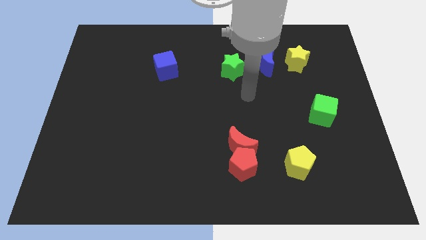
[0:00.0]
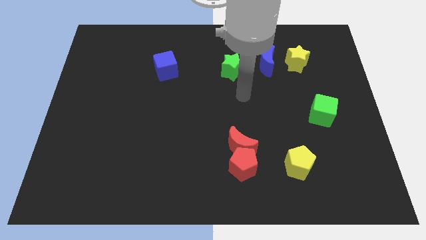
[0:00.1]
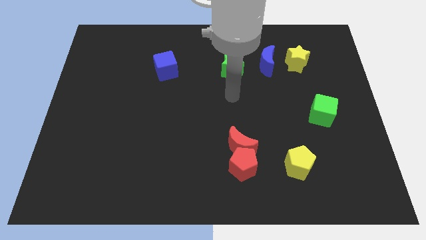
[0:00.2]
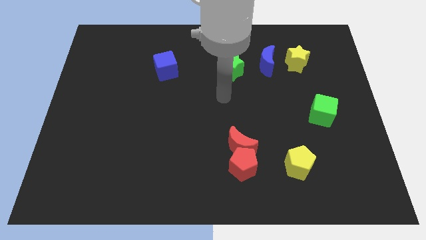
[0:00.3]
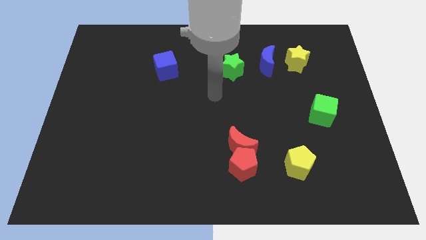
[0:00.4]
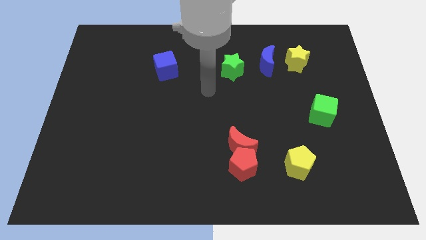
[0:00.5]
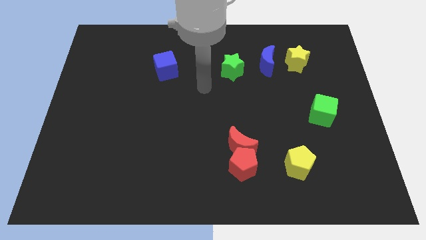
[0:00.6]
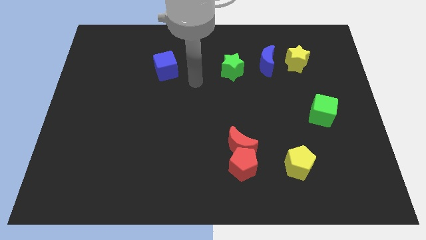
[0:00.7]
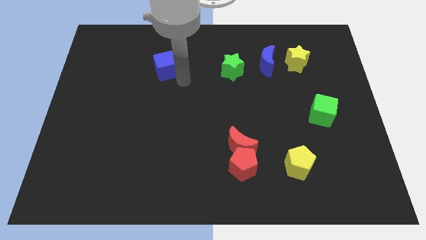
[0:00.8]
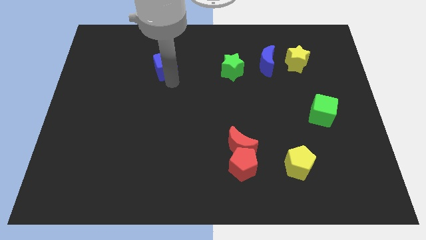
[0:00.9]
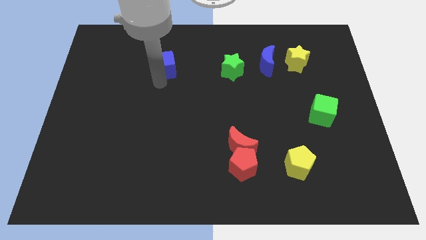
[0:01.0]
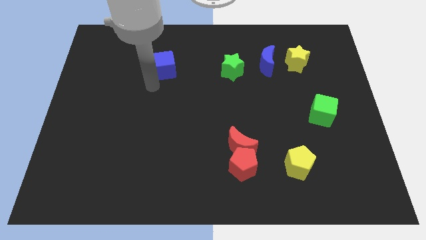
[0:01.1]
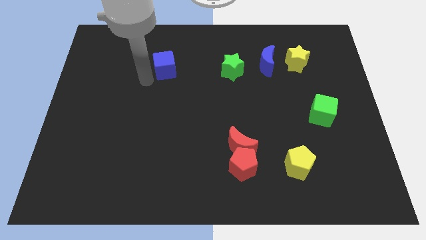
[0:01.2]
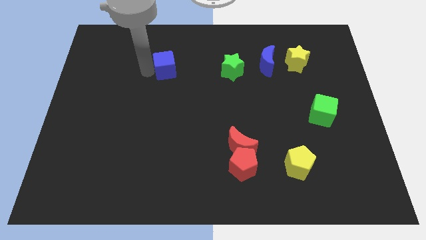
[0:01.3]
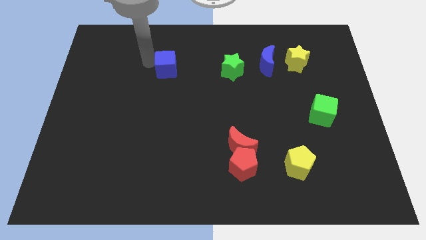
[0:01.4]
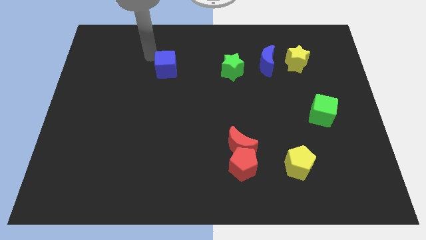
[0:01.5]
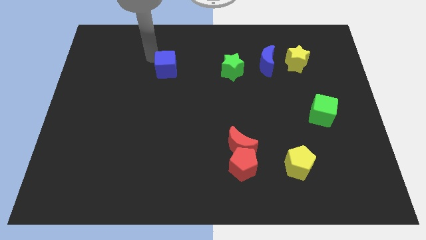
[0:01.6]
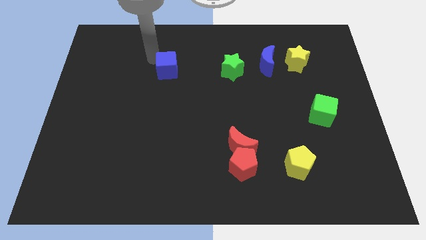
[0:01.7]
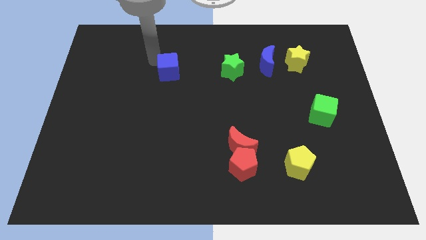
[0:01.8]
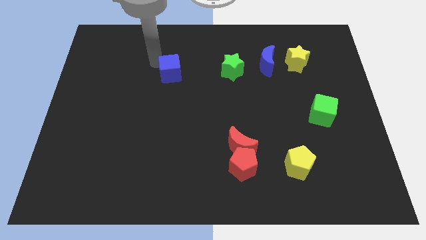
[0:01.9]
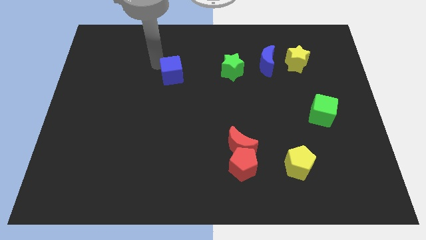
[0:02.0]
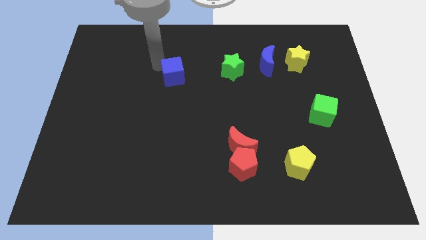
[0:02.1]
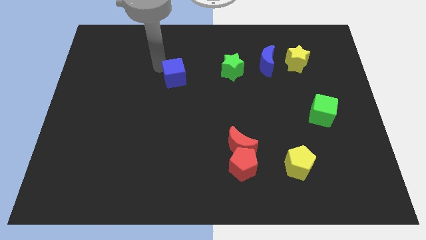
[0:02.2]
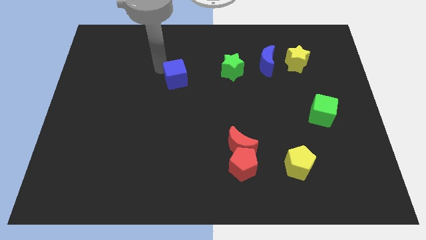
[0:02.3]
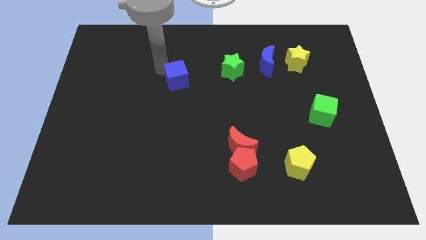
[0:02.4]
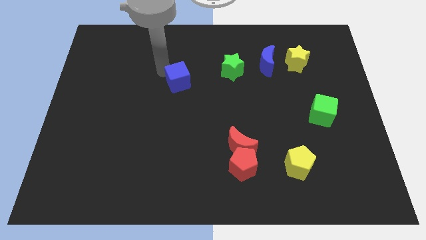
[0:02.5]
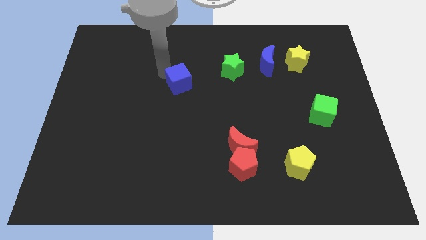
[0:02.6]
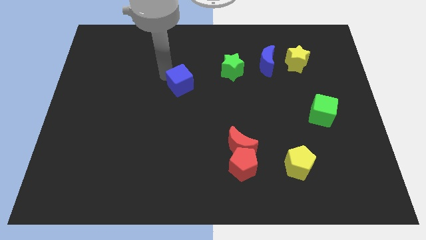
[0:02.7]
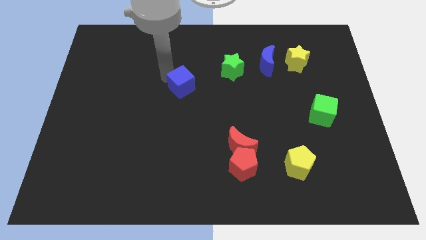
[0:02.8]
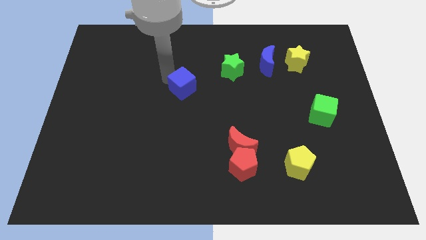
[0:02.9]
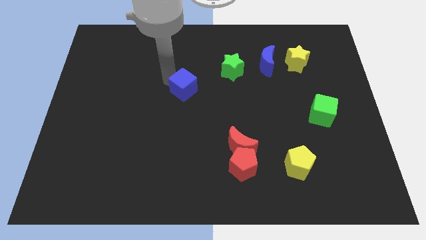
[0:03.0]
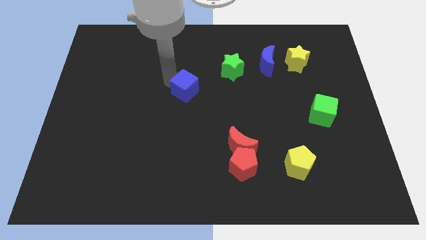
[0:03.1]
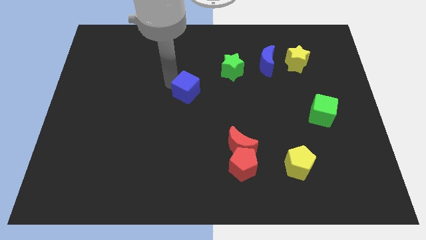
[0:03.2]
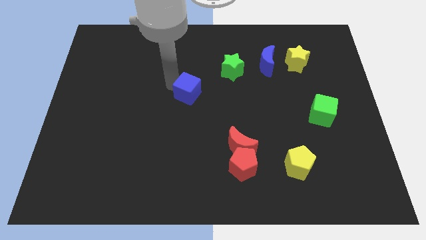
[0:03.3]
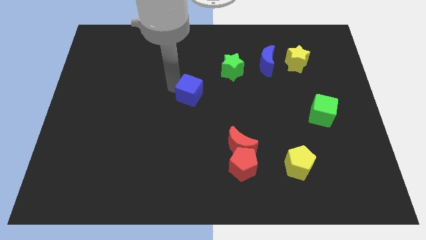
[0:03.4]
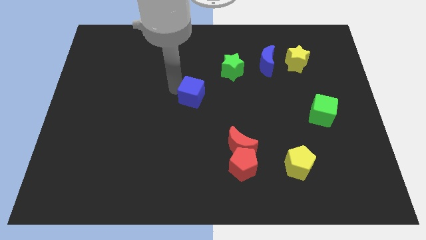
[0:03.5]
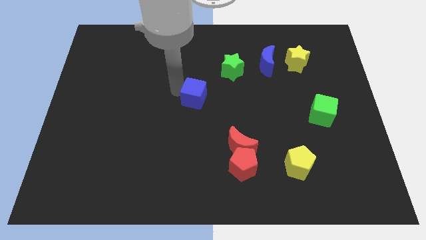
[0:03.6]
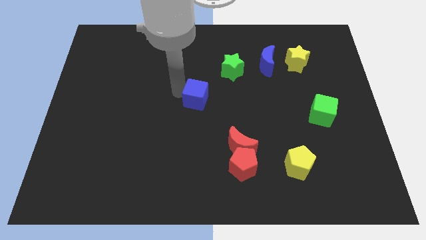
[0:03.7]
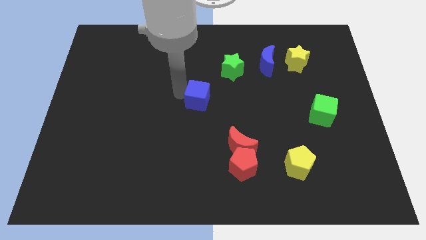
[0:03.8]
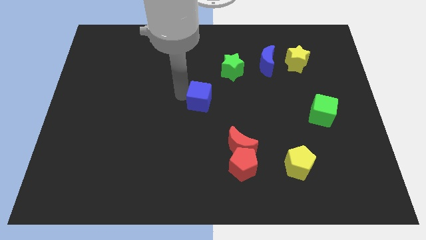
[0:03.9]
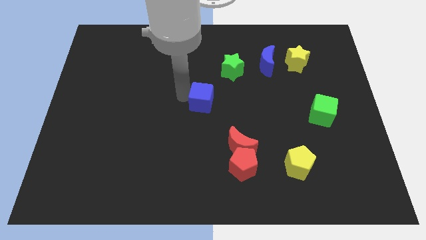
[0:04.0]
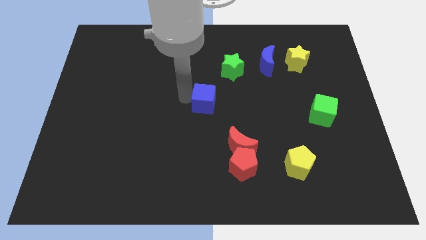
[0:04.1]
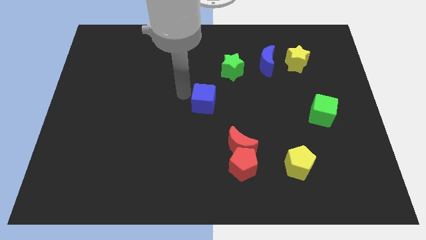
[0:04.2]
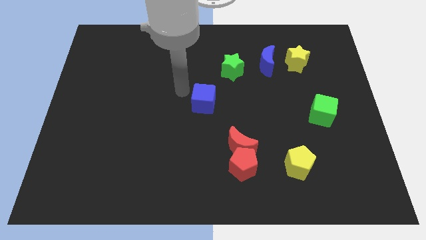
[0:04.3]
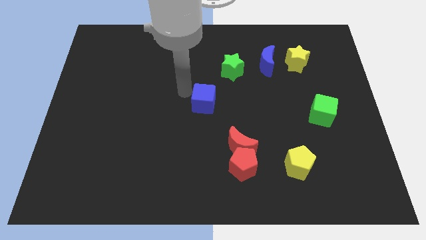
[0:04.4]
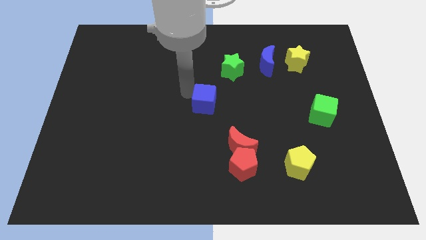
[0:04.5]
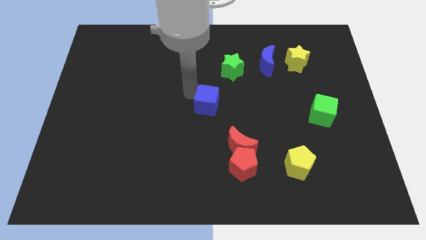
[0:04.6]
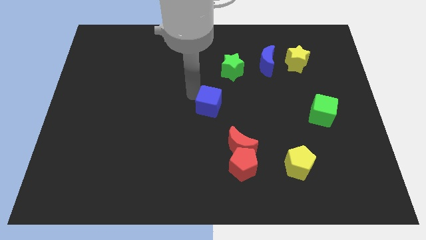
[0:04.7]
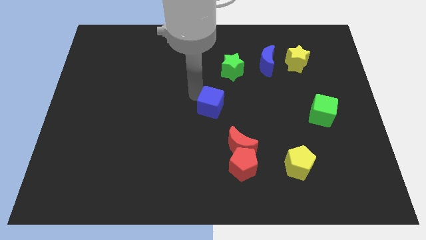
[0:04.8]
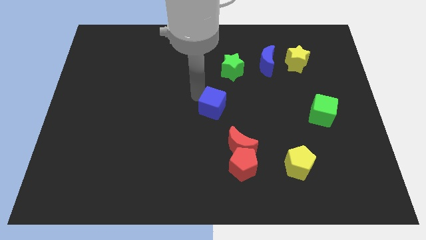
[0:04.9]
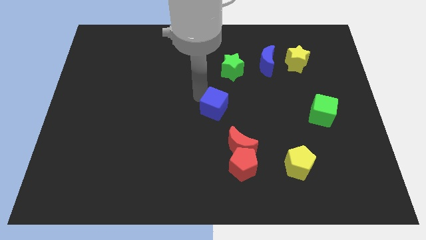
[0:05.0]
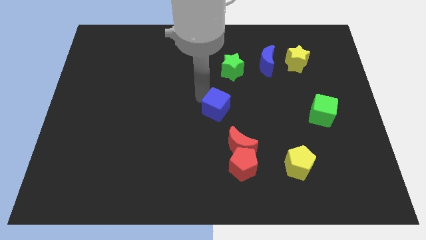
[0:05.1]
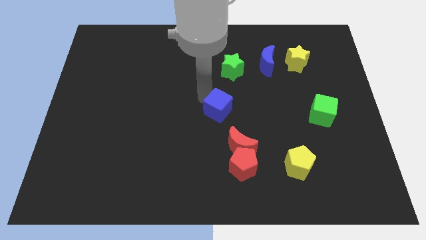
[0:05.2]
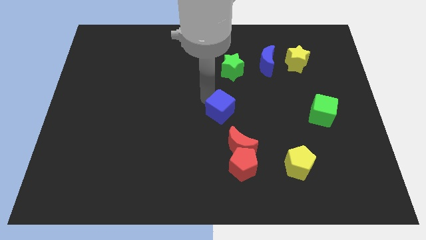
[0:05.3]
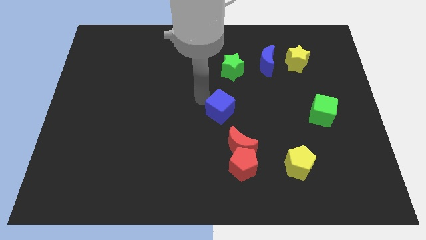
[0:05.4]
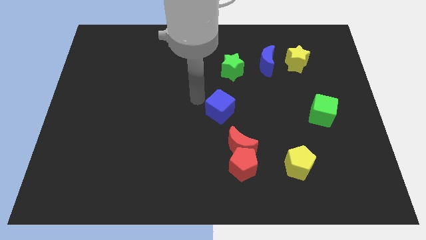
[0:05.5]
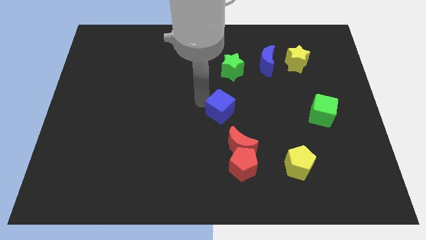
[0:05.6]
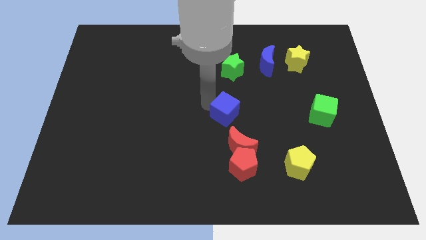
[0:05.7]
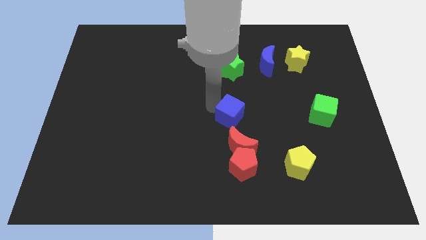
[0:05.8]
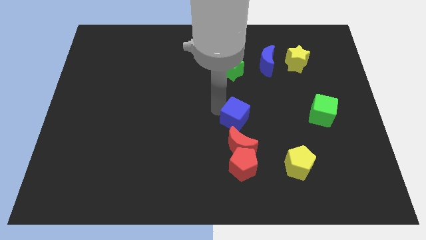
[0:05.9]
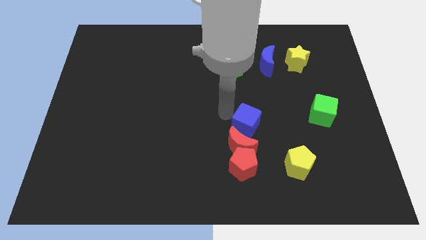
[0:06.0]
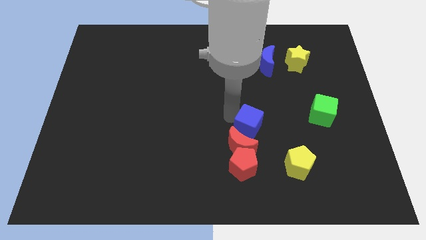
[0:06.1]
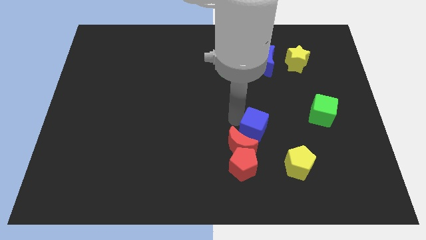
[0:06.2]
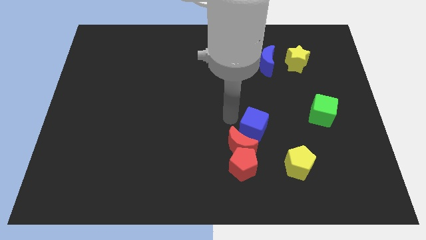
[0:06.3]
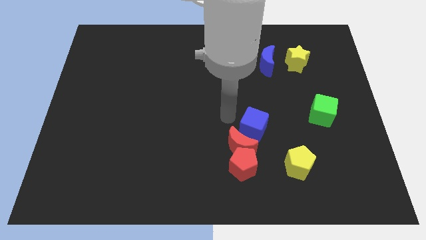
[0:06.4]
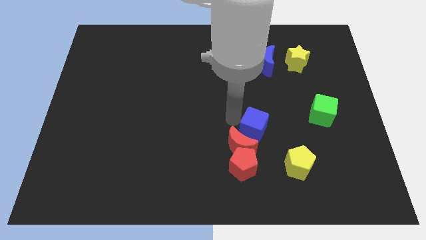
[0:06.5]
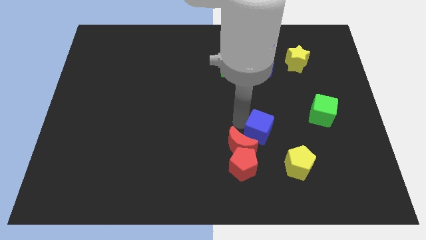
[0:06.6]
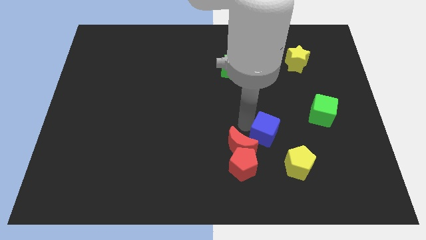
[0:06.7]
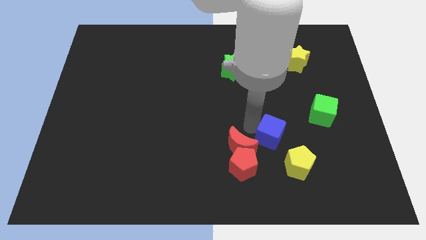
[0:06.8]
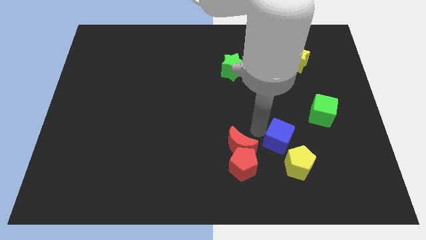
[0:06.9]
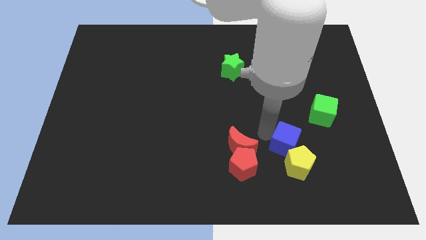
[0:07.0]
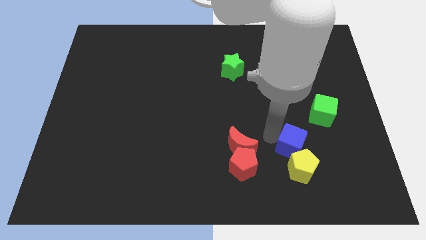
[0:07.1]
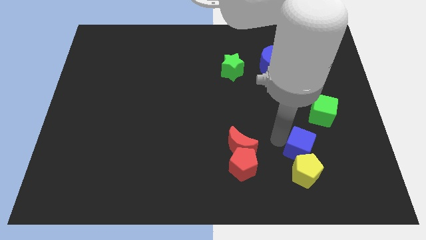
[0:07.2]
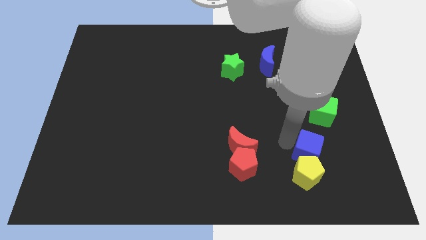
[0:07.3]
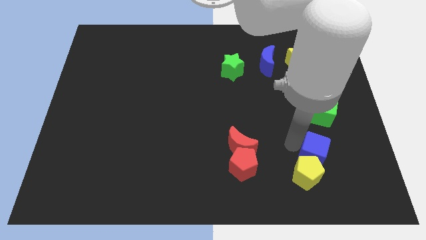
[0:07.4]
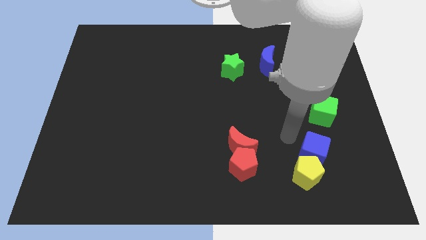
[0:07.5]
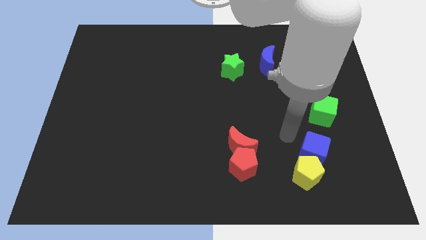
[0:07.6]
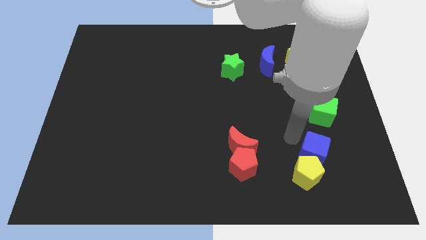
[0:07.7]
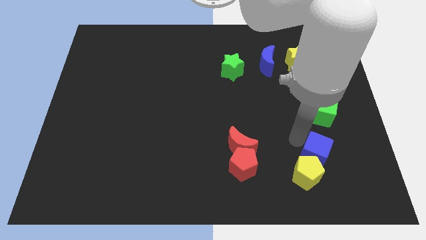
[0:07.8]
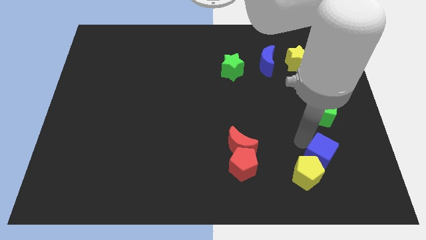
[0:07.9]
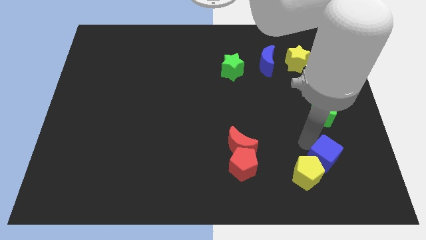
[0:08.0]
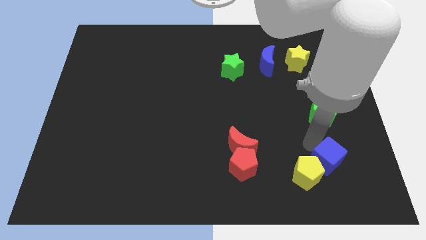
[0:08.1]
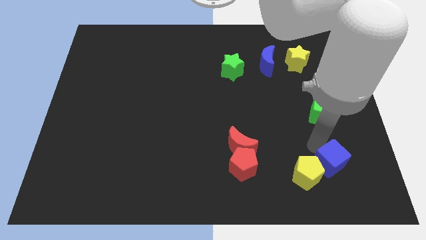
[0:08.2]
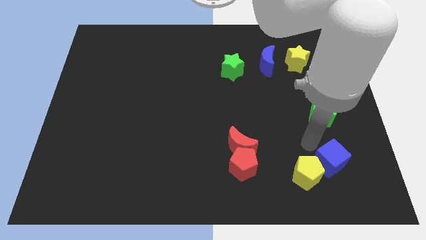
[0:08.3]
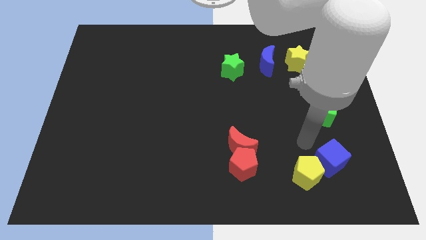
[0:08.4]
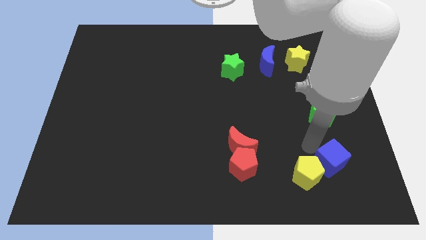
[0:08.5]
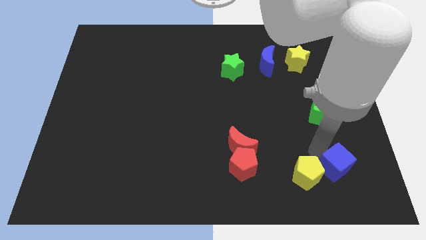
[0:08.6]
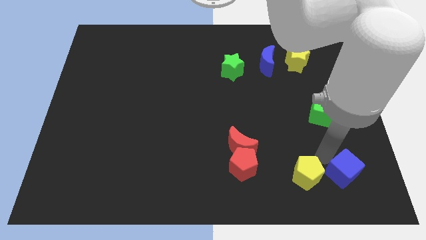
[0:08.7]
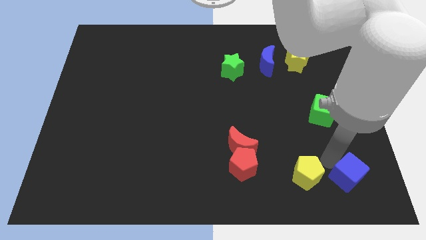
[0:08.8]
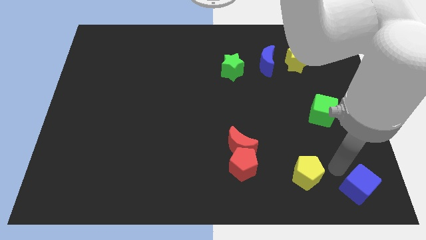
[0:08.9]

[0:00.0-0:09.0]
slide the blue cube to the lower right corner
